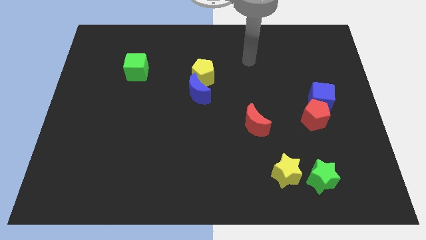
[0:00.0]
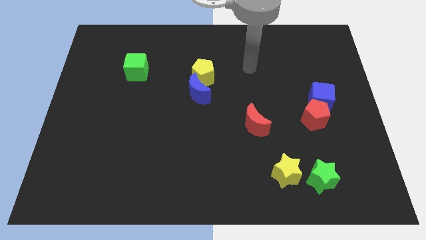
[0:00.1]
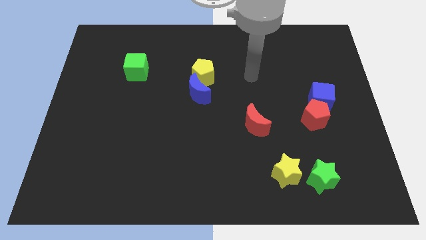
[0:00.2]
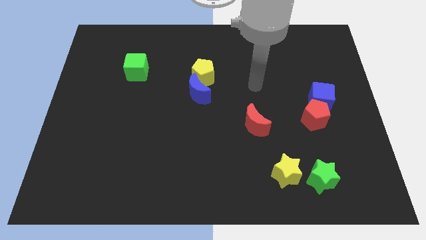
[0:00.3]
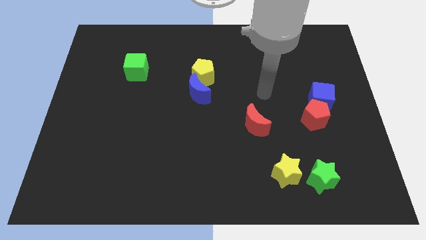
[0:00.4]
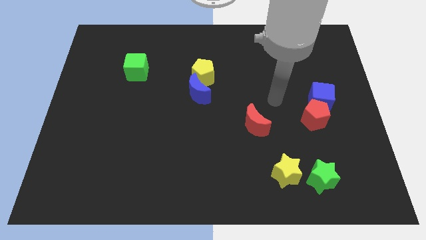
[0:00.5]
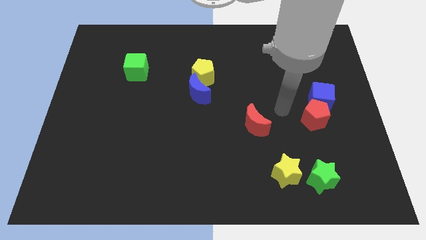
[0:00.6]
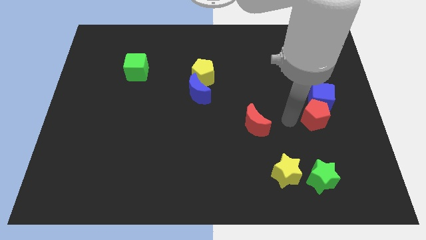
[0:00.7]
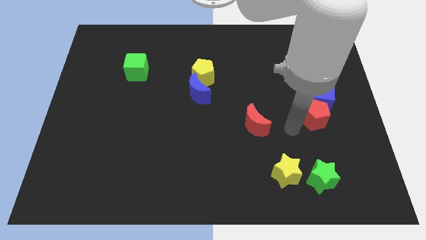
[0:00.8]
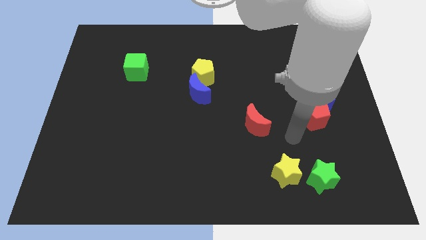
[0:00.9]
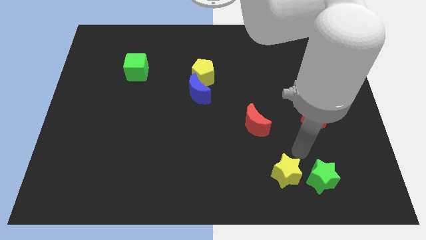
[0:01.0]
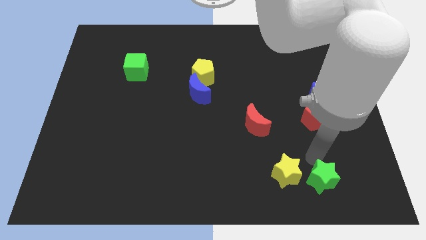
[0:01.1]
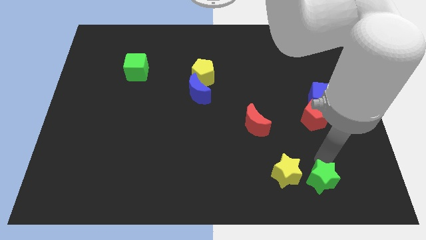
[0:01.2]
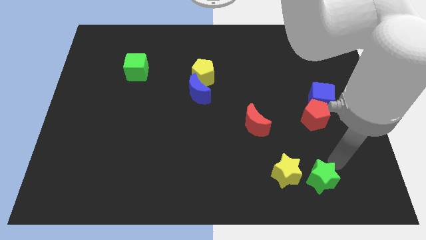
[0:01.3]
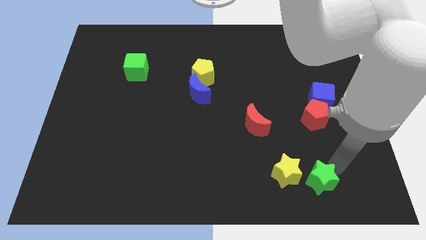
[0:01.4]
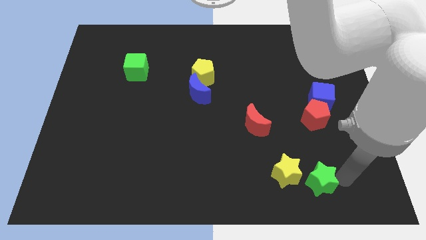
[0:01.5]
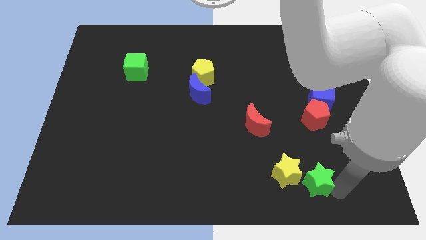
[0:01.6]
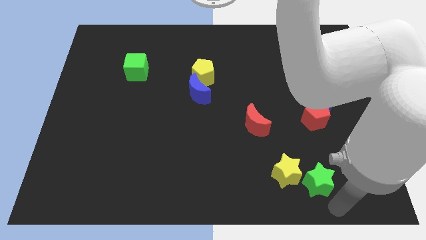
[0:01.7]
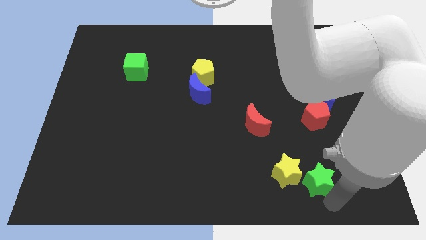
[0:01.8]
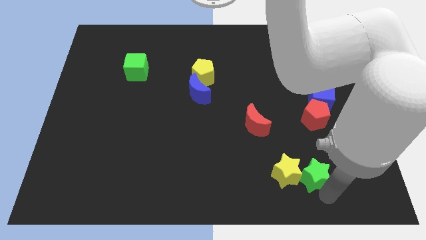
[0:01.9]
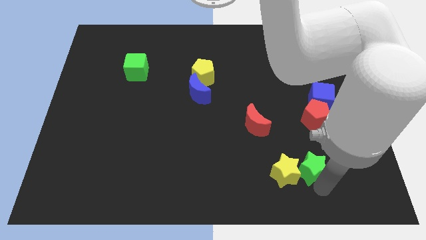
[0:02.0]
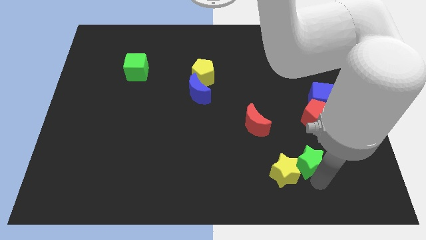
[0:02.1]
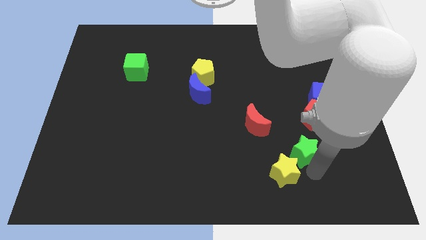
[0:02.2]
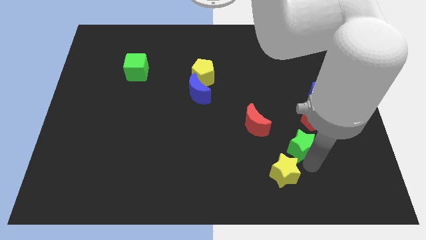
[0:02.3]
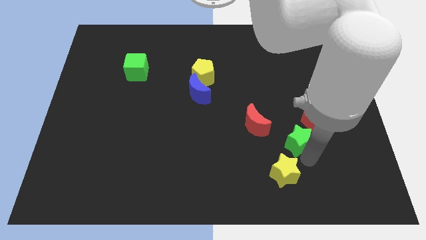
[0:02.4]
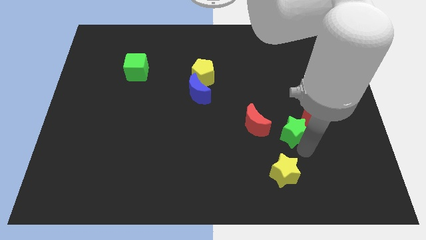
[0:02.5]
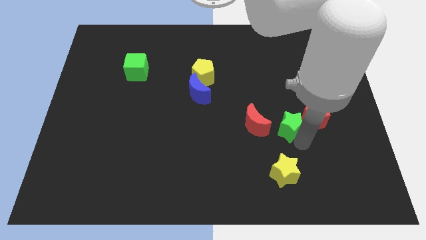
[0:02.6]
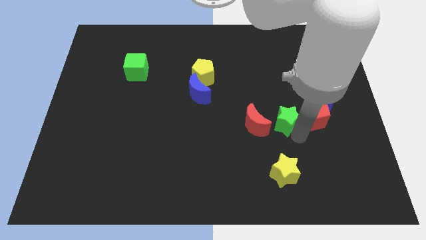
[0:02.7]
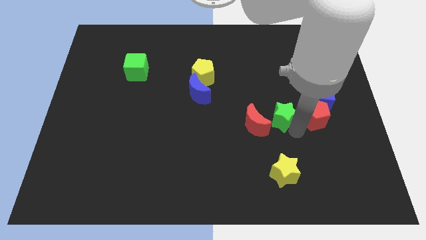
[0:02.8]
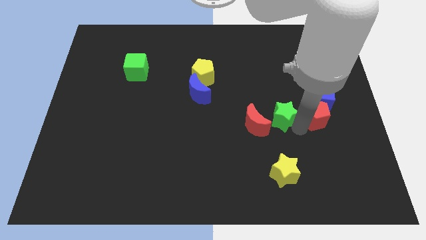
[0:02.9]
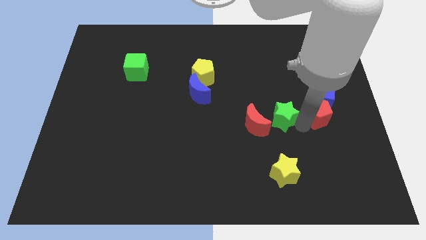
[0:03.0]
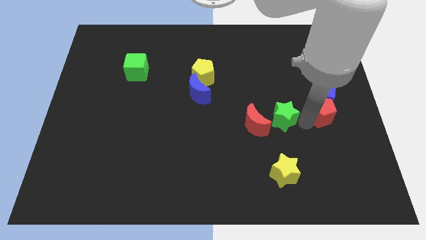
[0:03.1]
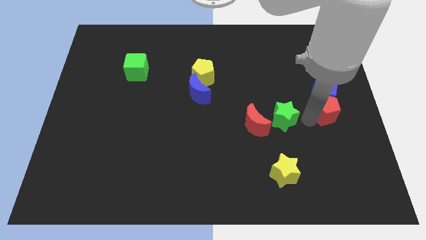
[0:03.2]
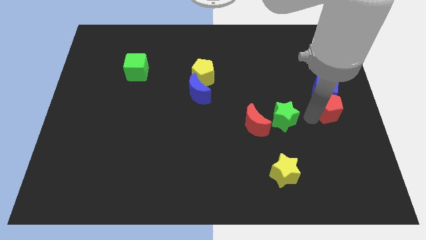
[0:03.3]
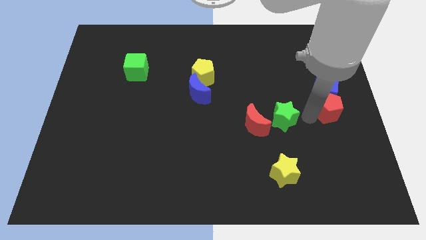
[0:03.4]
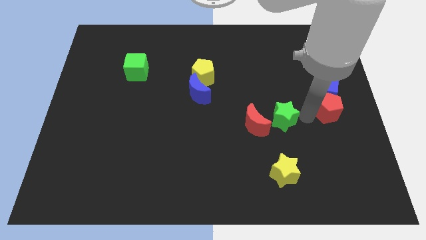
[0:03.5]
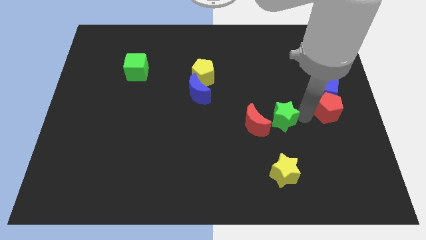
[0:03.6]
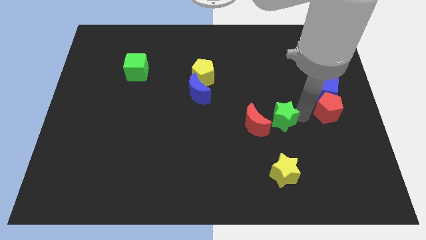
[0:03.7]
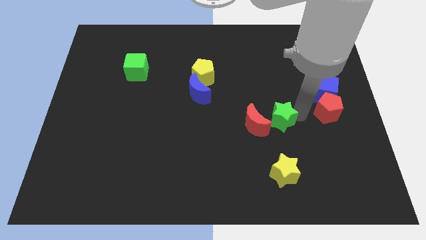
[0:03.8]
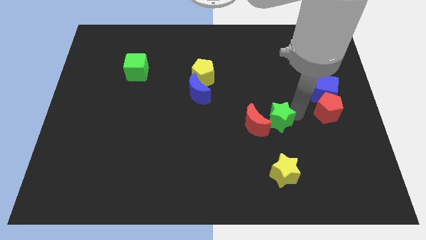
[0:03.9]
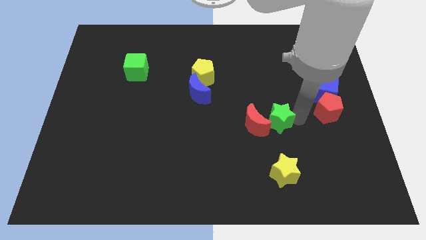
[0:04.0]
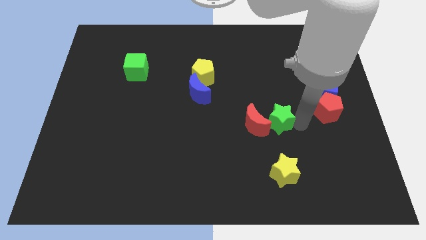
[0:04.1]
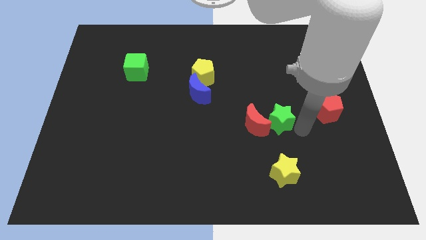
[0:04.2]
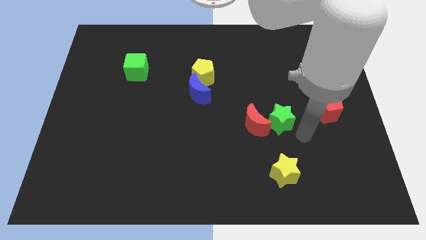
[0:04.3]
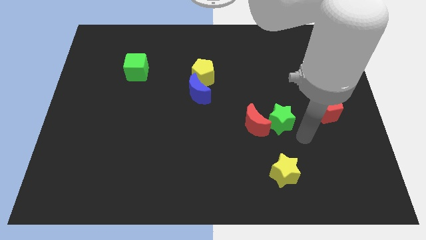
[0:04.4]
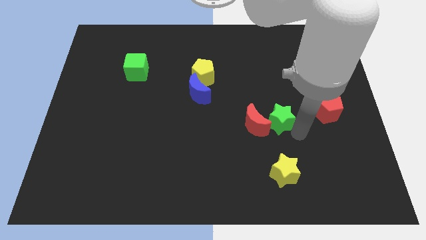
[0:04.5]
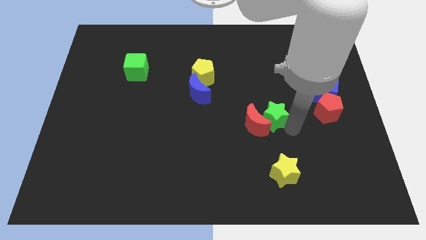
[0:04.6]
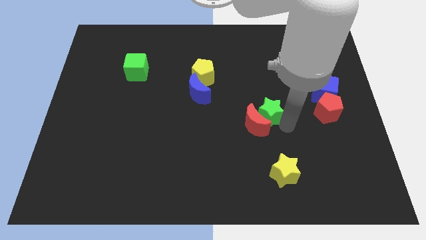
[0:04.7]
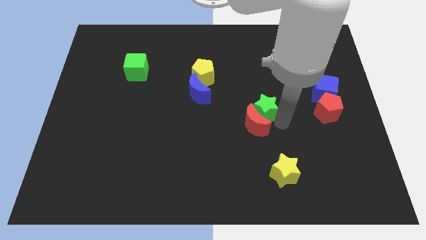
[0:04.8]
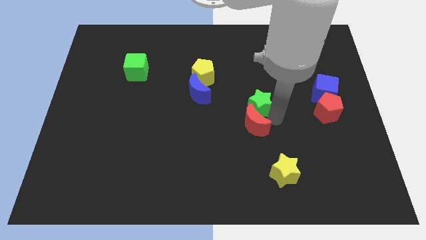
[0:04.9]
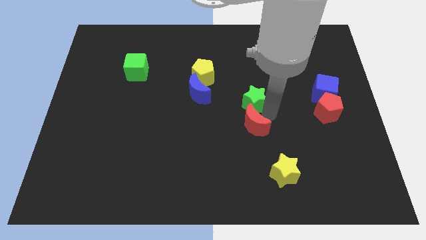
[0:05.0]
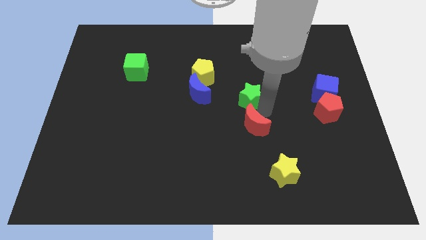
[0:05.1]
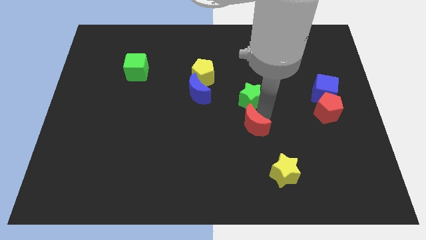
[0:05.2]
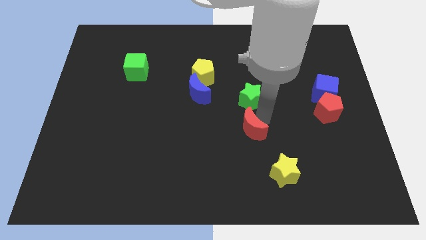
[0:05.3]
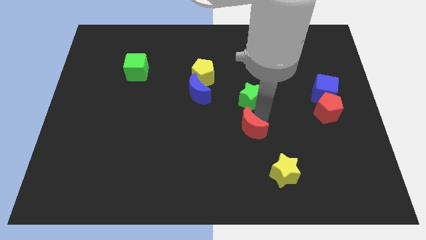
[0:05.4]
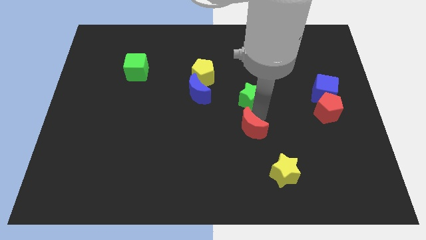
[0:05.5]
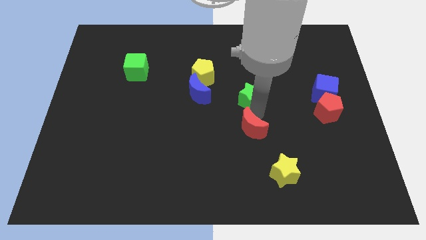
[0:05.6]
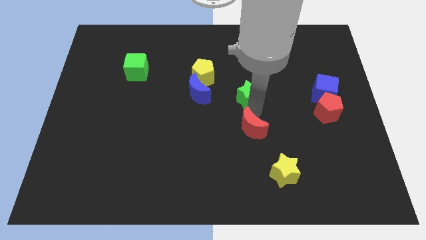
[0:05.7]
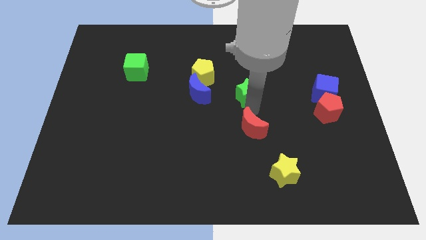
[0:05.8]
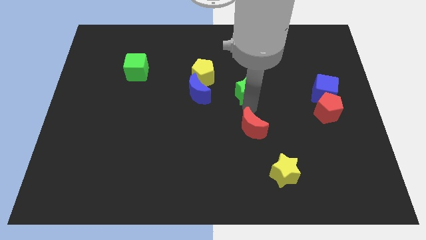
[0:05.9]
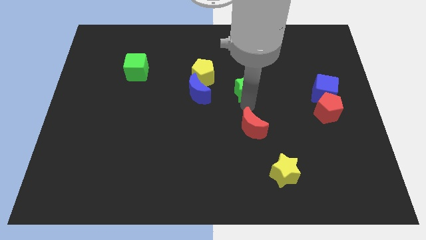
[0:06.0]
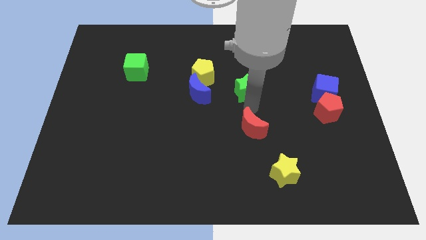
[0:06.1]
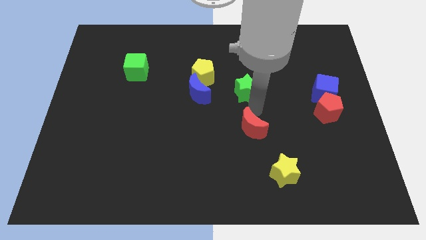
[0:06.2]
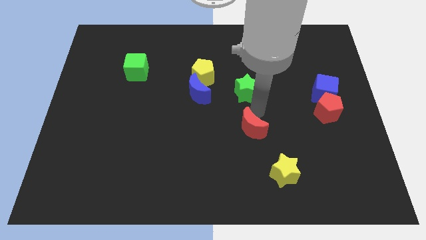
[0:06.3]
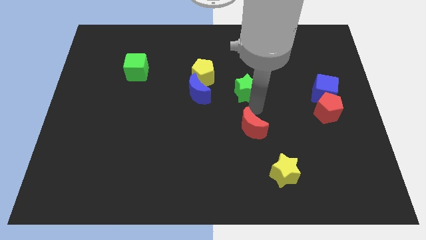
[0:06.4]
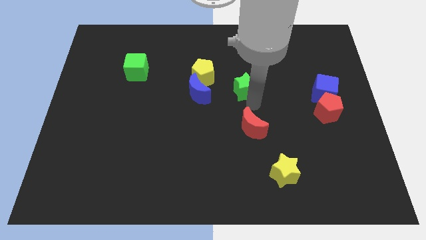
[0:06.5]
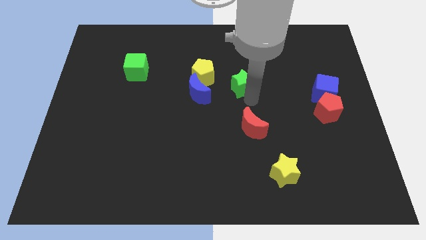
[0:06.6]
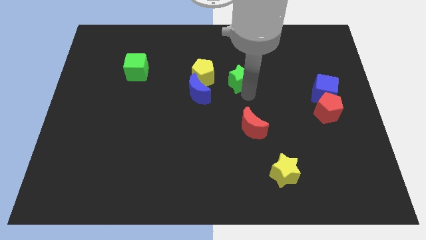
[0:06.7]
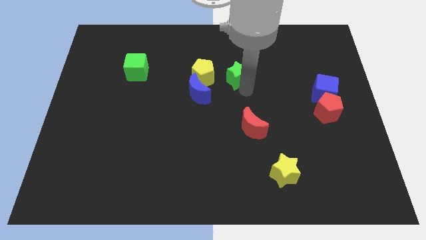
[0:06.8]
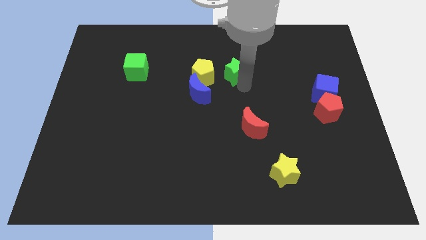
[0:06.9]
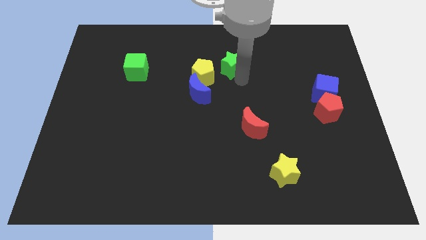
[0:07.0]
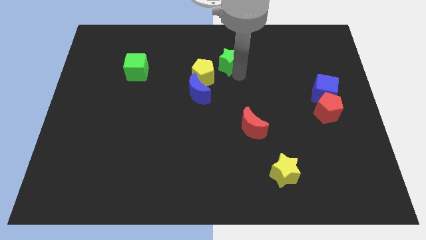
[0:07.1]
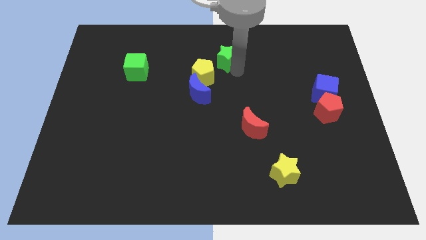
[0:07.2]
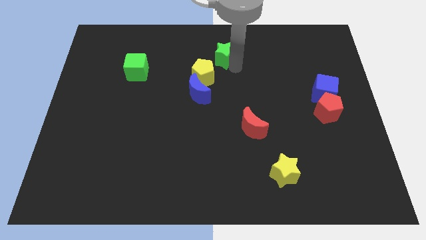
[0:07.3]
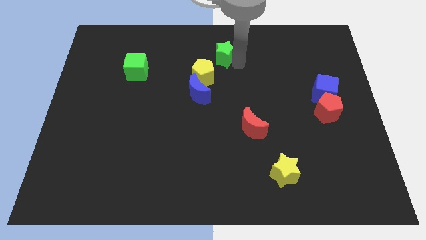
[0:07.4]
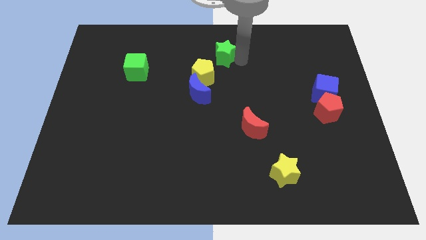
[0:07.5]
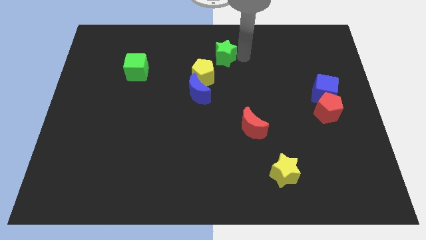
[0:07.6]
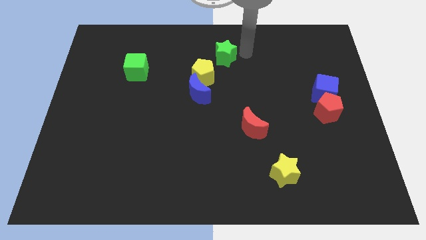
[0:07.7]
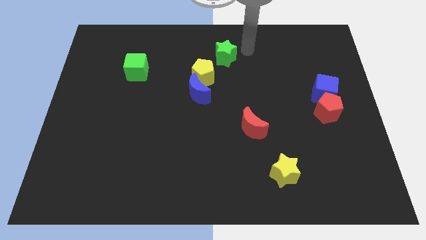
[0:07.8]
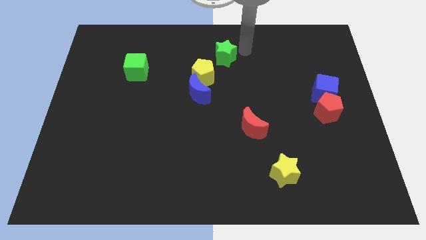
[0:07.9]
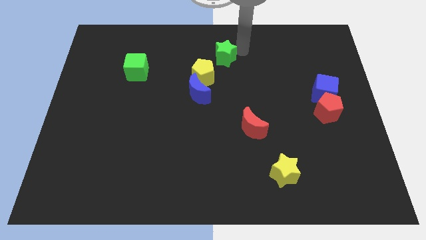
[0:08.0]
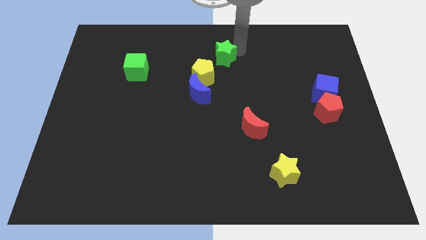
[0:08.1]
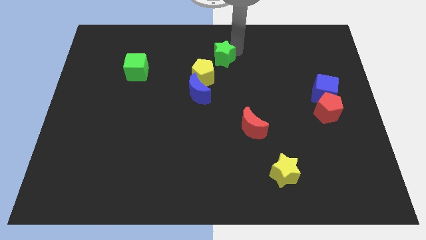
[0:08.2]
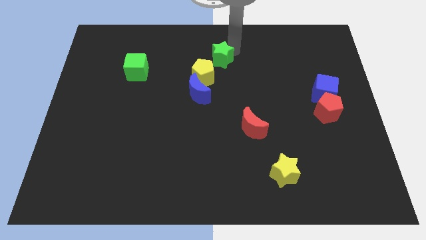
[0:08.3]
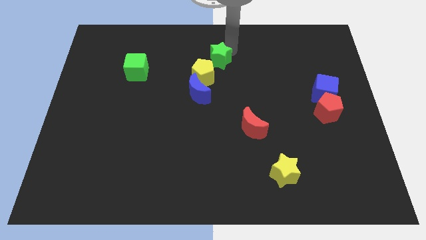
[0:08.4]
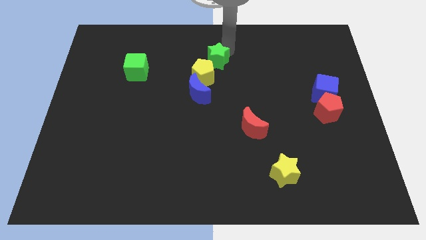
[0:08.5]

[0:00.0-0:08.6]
move the green star to the top of the blue moon
